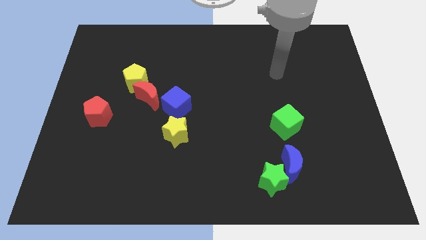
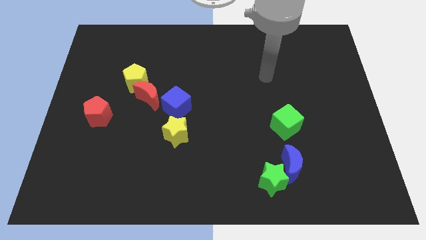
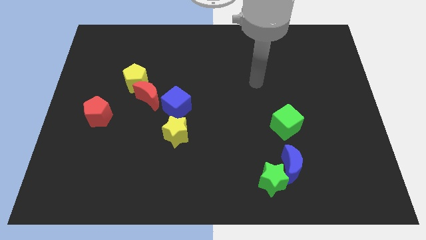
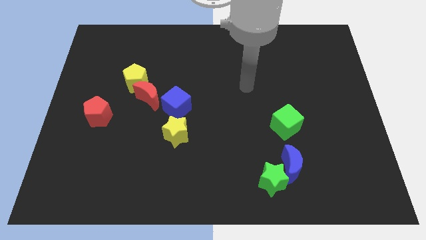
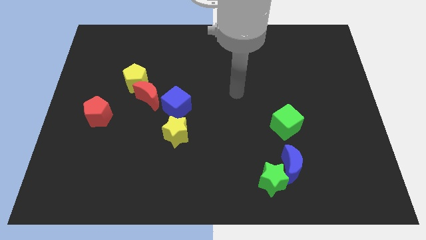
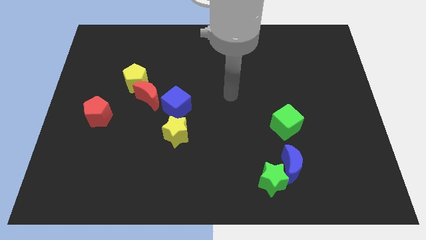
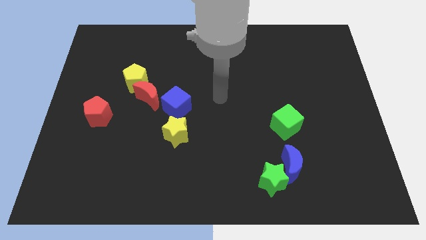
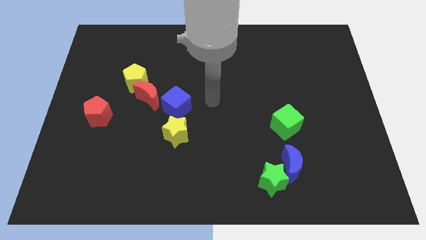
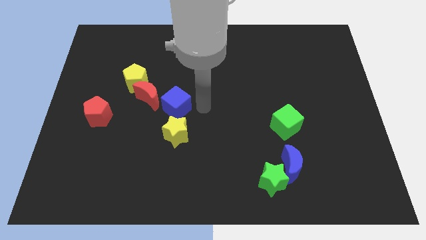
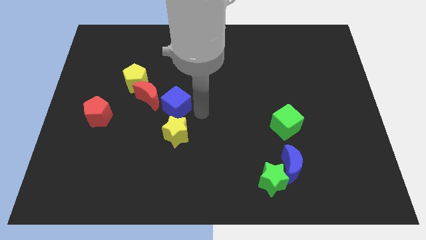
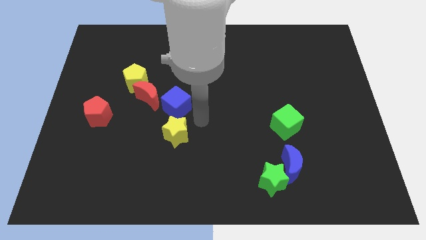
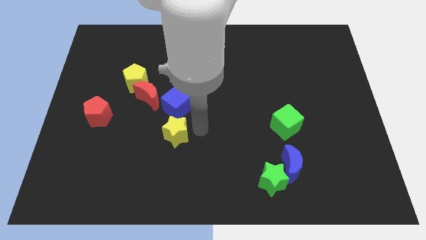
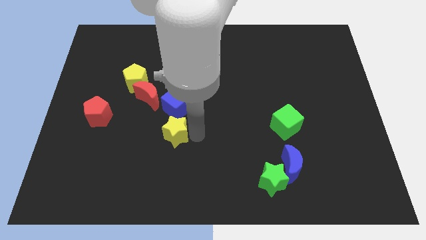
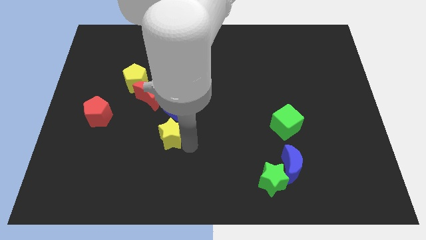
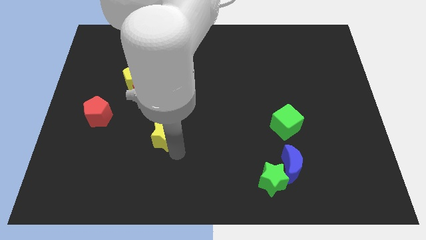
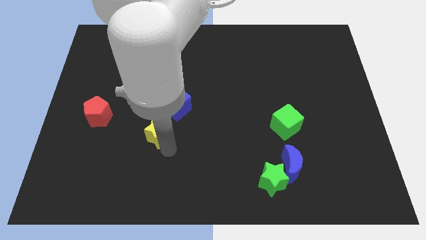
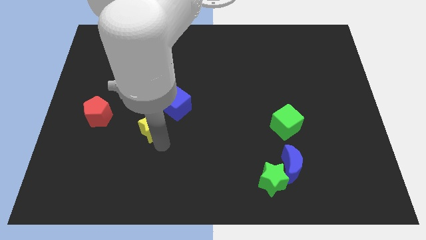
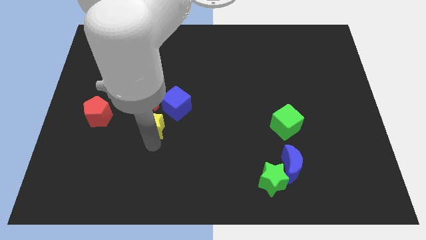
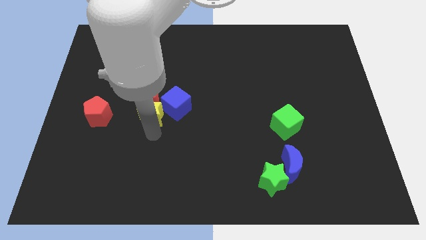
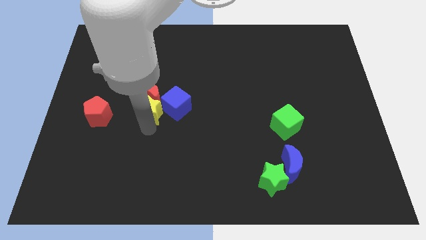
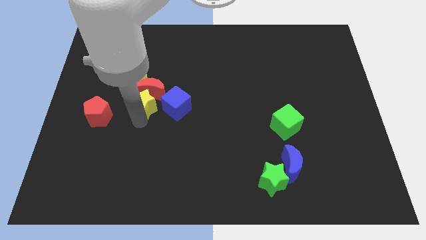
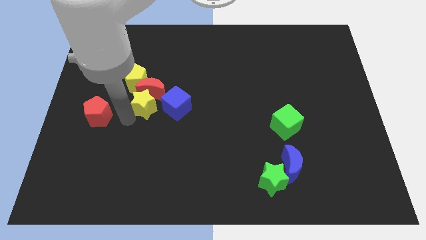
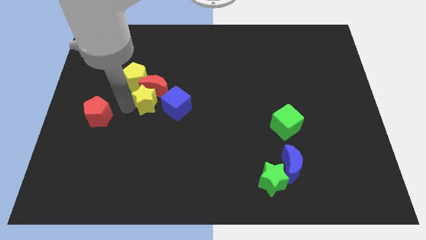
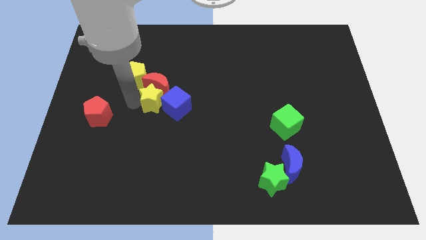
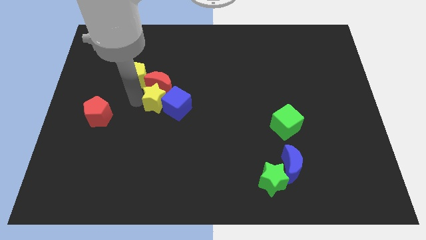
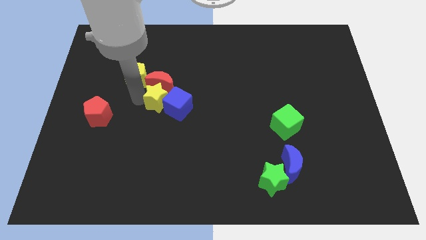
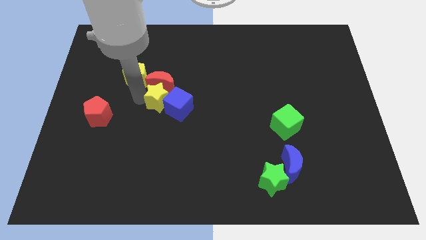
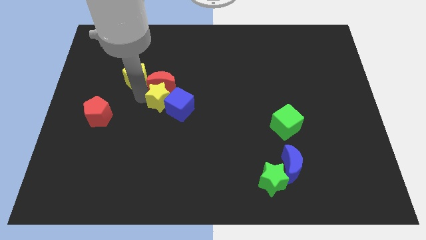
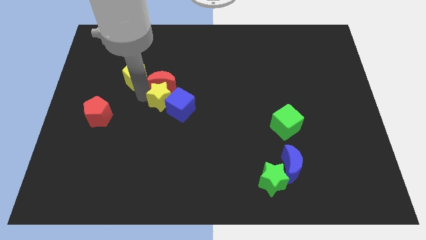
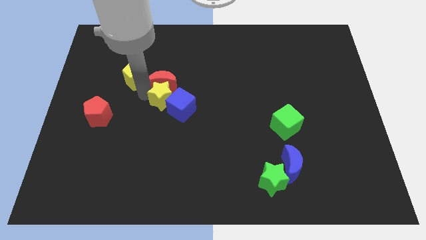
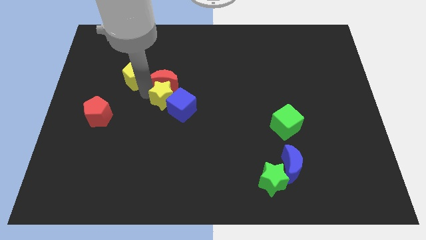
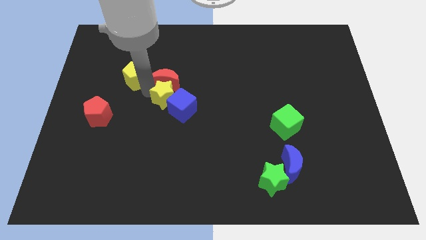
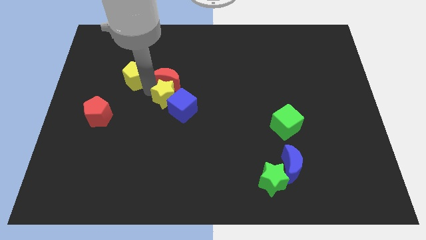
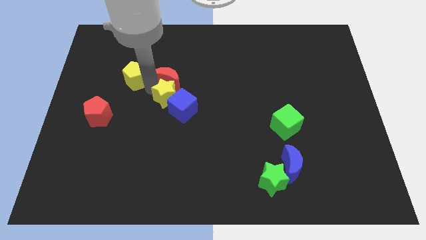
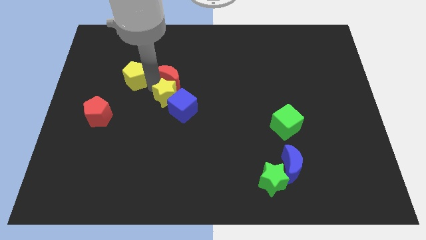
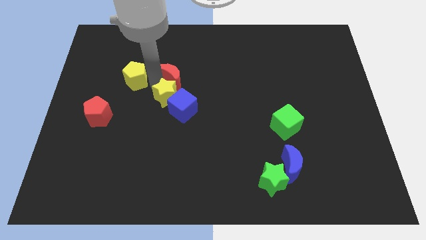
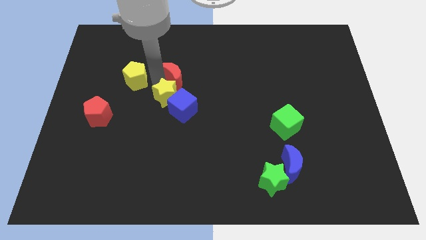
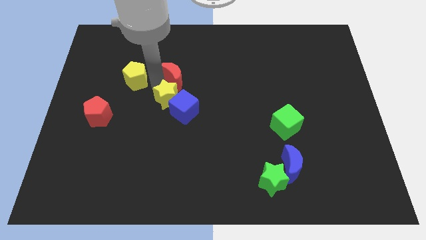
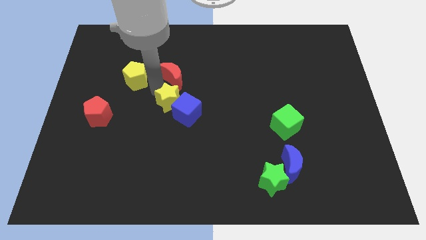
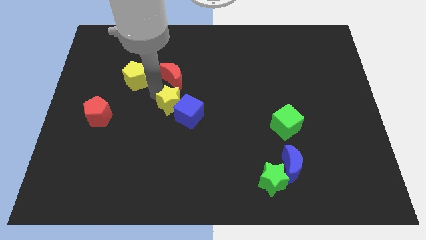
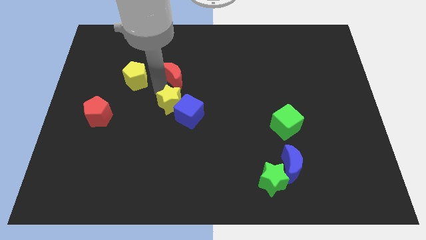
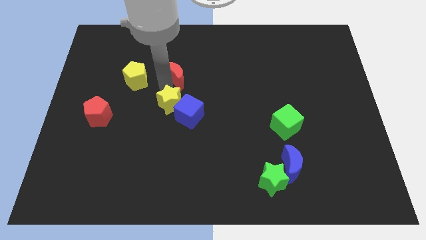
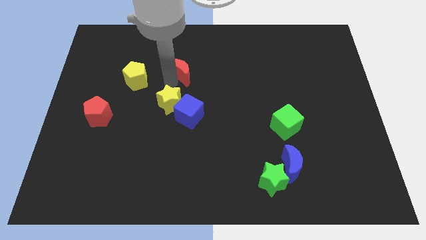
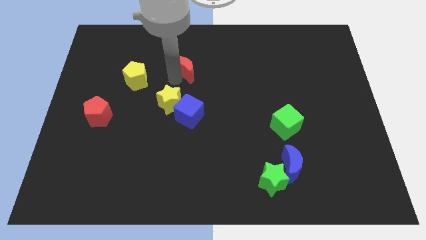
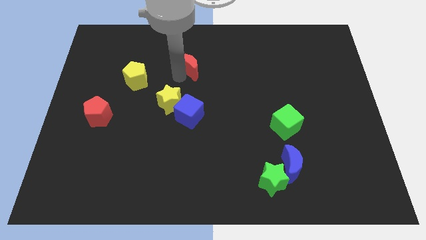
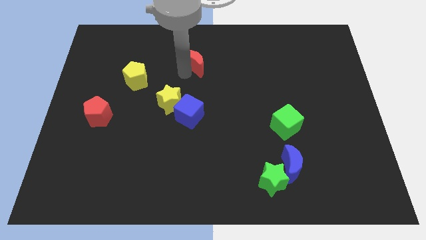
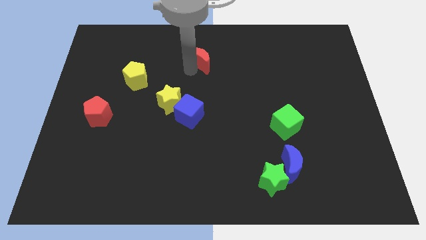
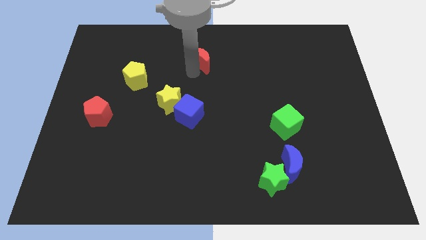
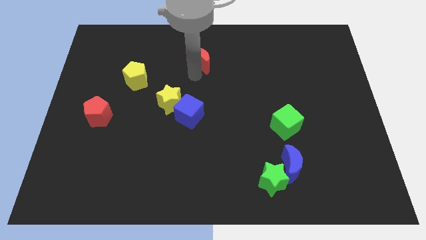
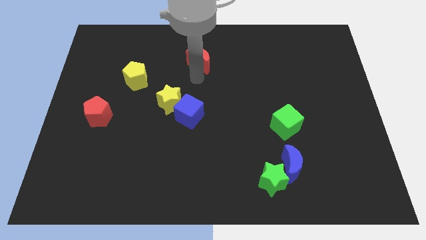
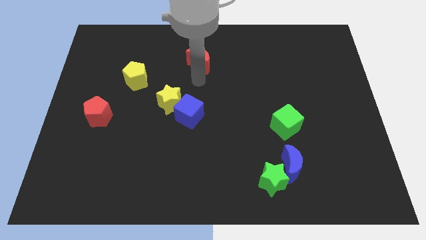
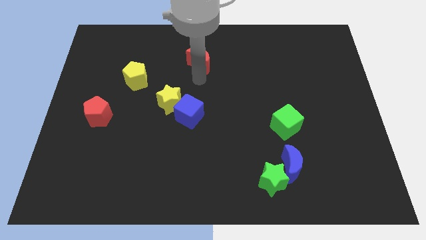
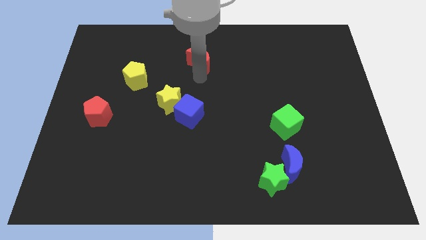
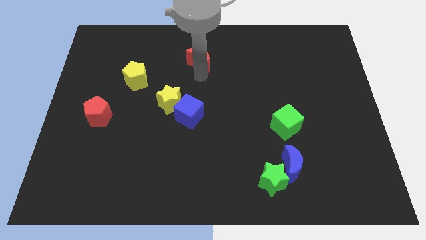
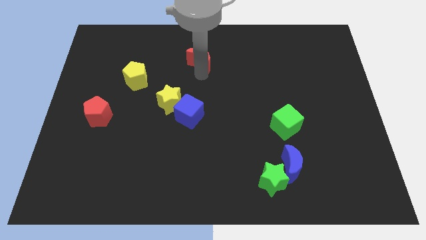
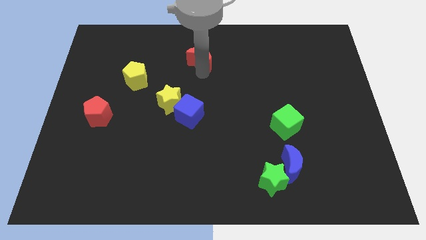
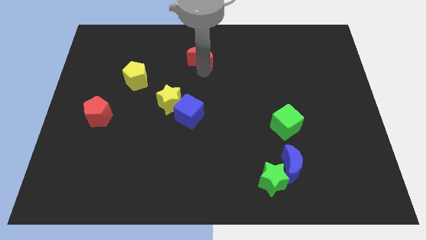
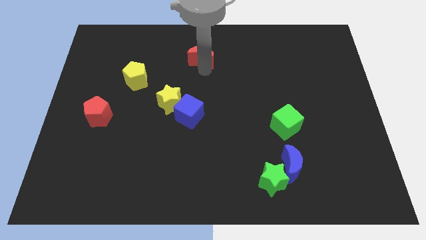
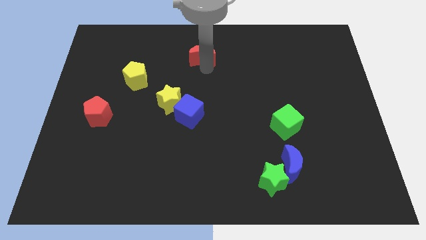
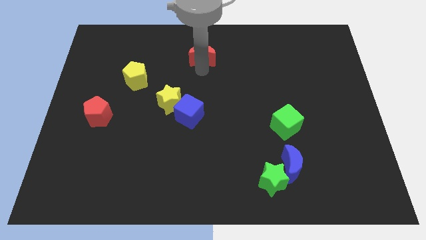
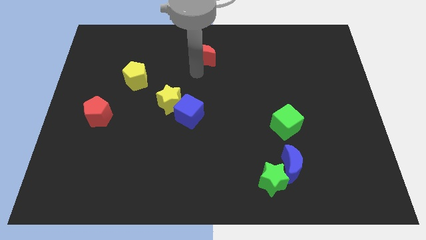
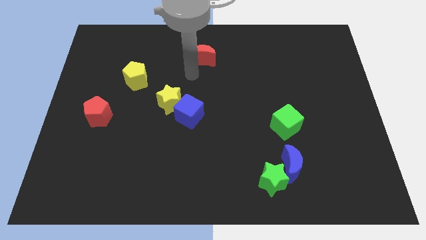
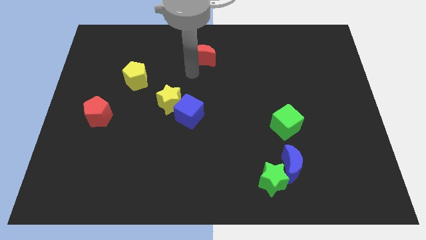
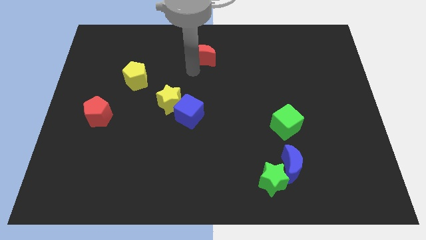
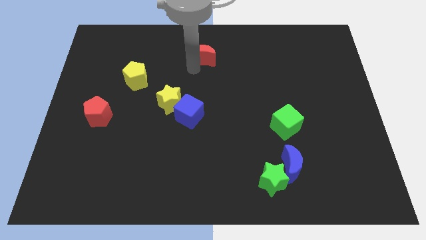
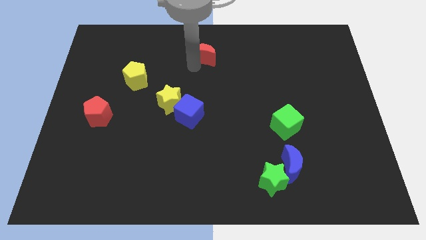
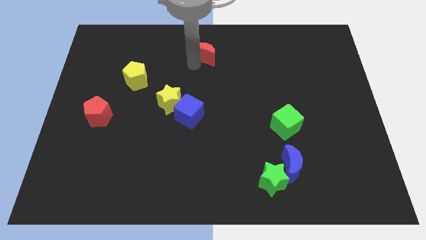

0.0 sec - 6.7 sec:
slide the red moon to the towards your base

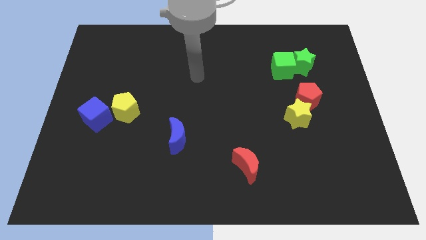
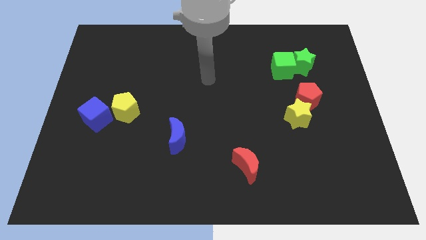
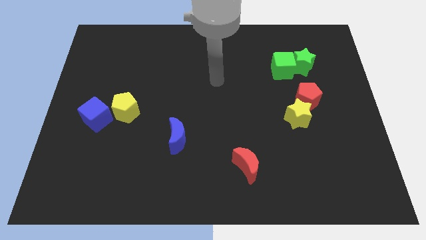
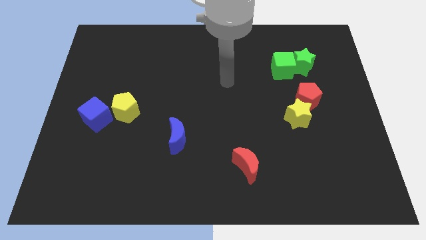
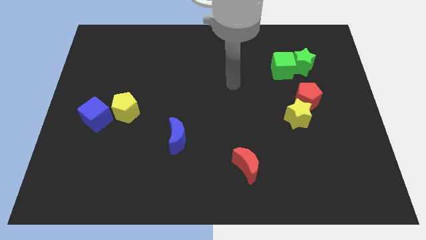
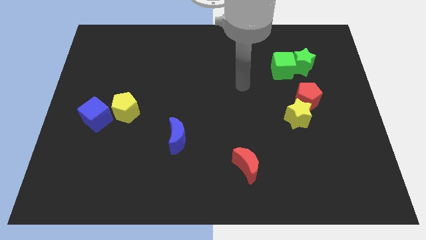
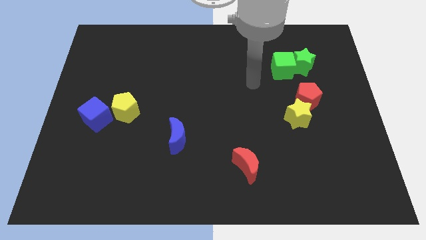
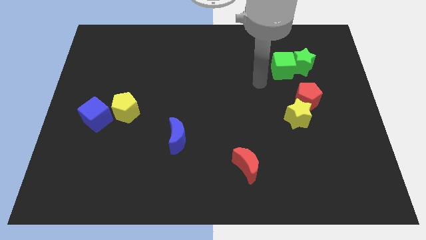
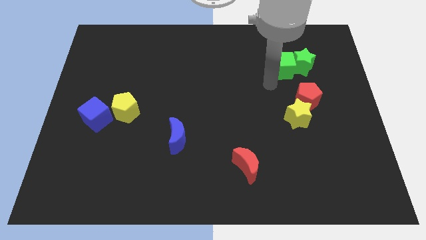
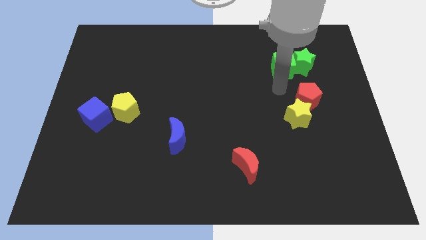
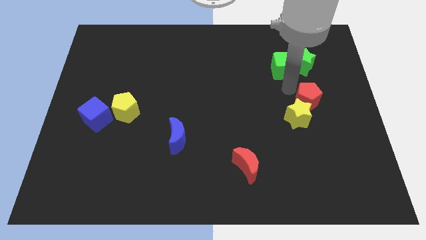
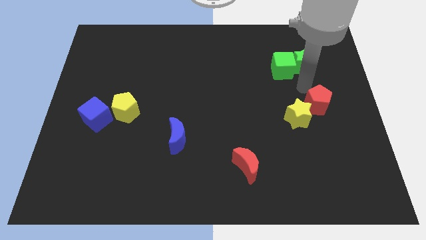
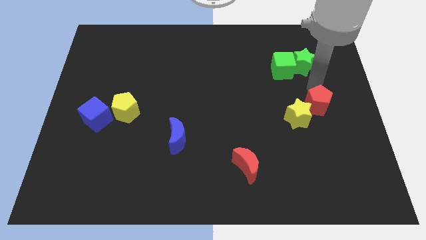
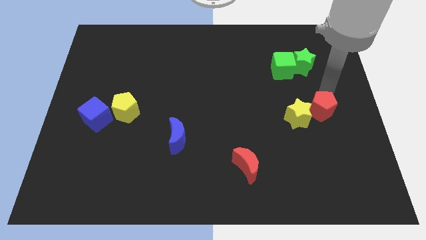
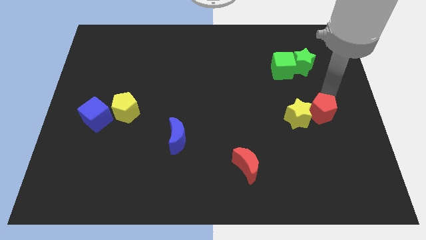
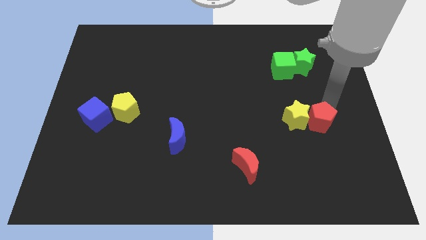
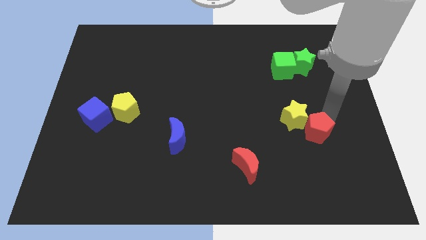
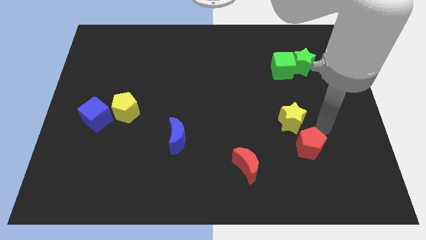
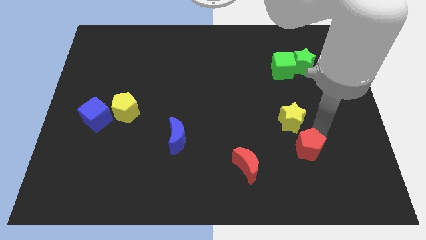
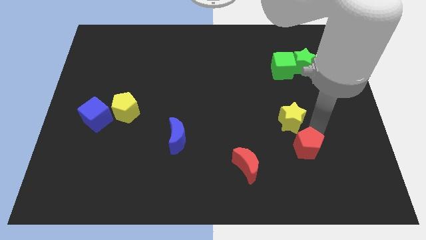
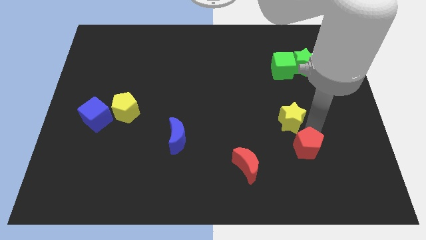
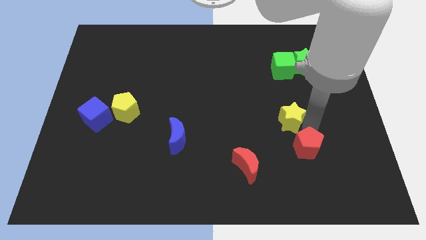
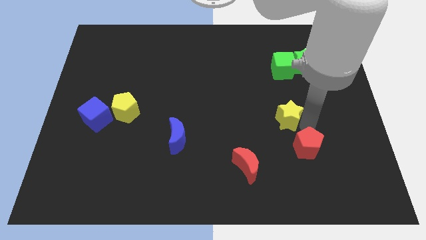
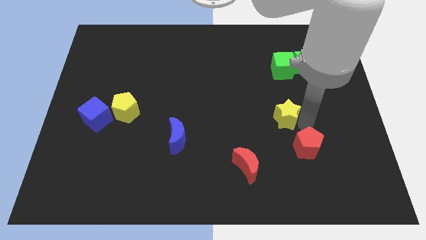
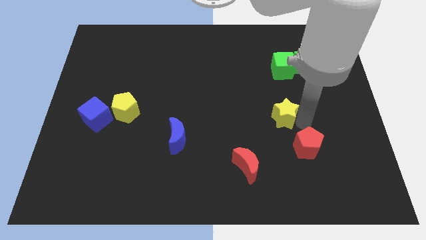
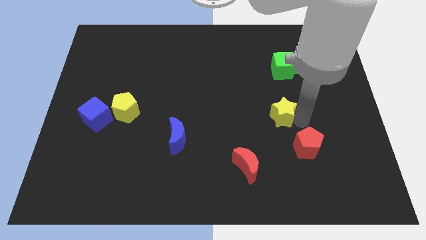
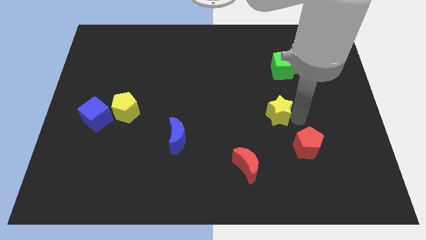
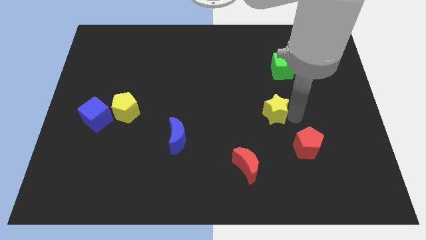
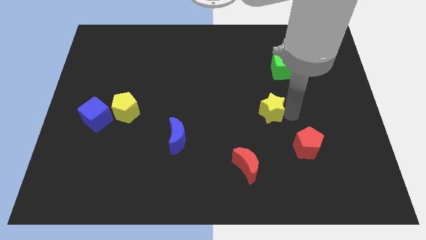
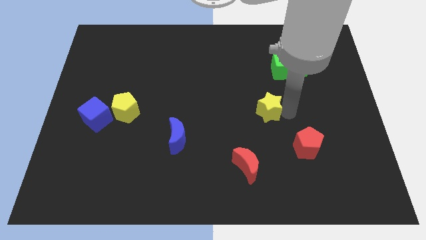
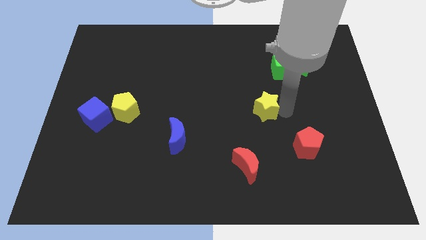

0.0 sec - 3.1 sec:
push the yellow star to the middle
